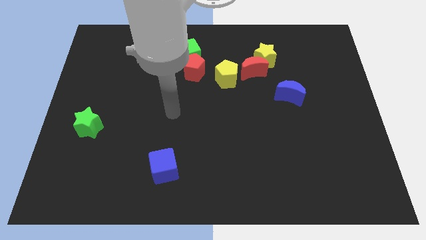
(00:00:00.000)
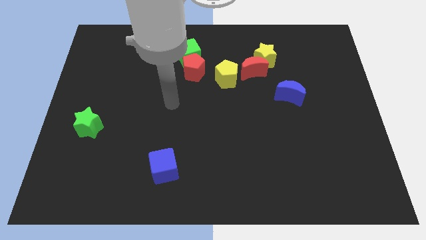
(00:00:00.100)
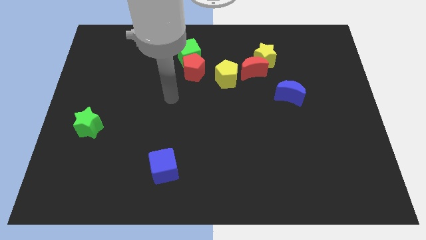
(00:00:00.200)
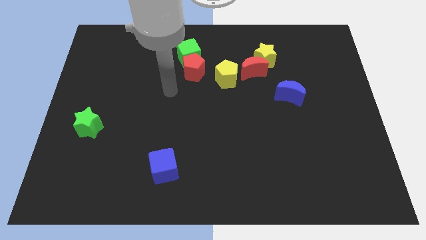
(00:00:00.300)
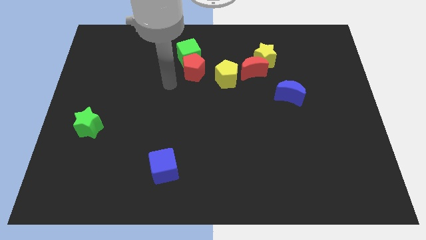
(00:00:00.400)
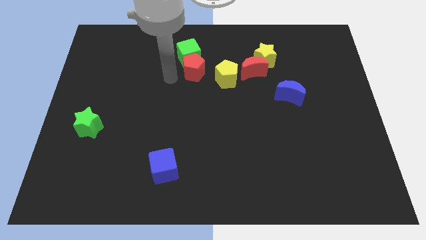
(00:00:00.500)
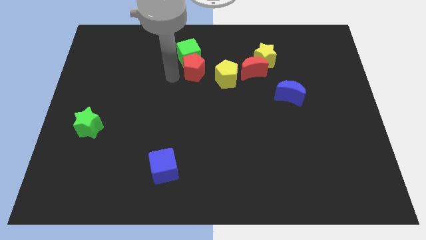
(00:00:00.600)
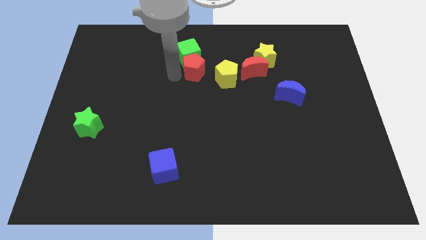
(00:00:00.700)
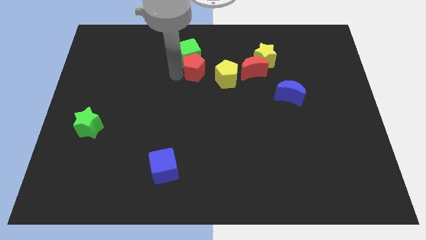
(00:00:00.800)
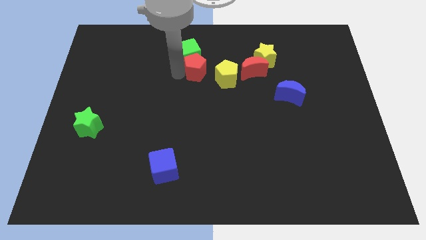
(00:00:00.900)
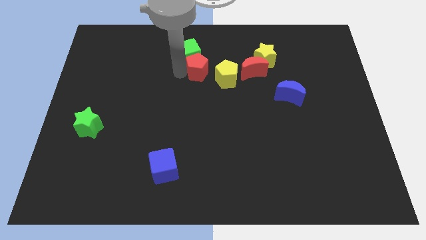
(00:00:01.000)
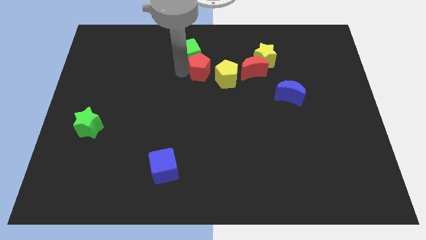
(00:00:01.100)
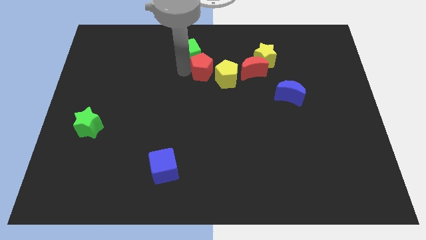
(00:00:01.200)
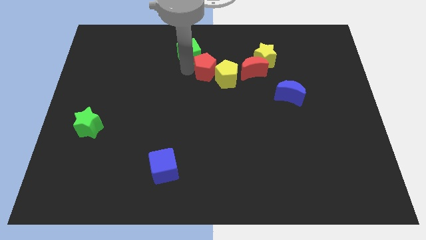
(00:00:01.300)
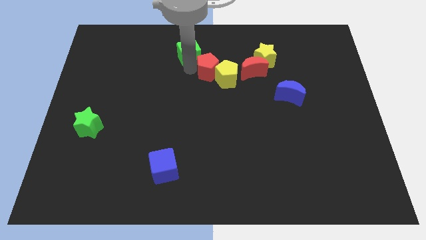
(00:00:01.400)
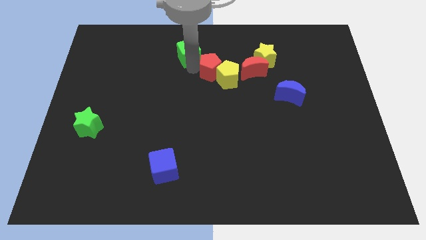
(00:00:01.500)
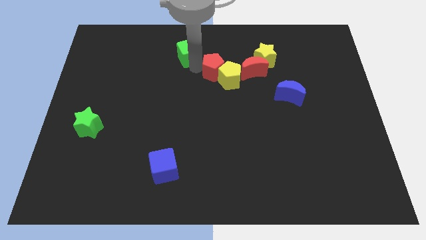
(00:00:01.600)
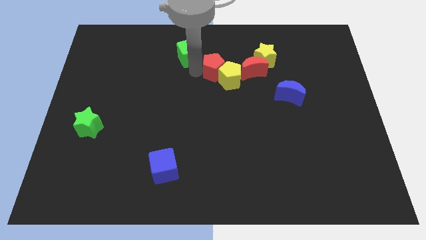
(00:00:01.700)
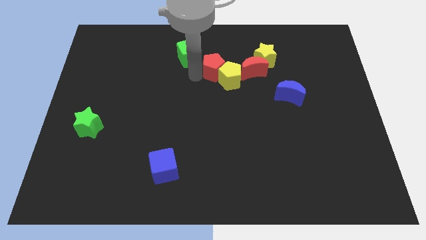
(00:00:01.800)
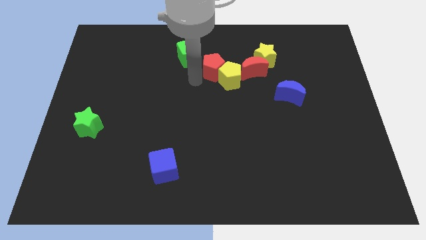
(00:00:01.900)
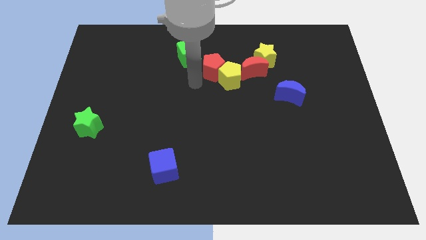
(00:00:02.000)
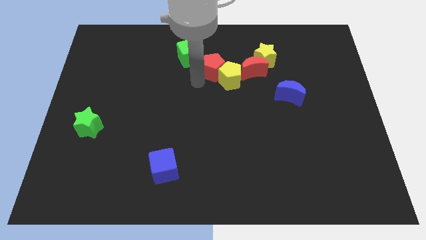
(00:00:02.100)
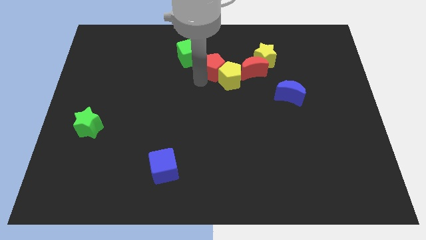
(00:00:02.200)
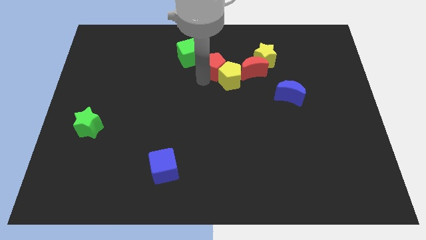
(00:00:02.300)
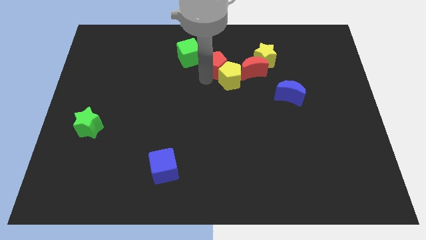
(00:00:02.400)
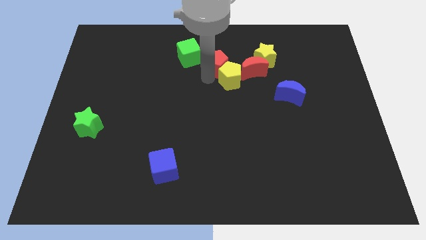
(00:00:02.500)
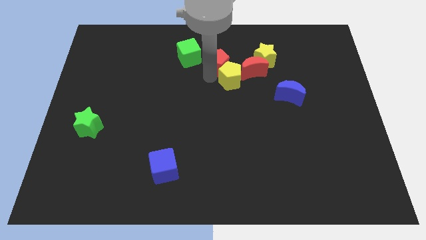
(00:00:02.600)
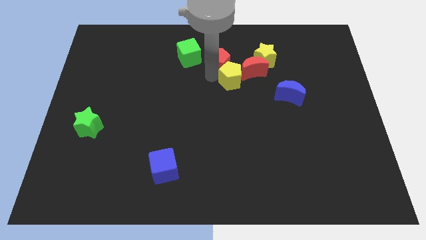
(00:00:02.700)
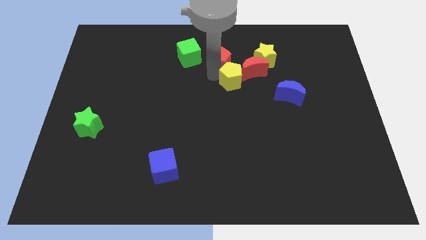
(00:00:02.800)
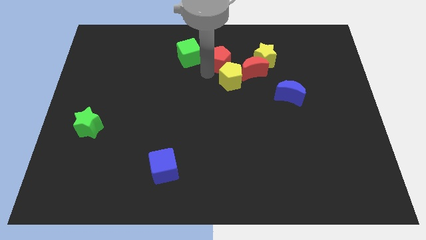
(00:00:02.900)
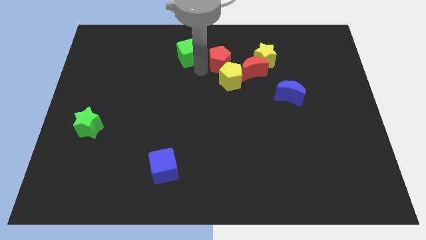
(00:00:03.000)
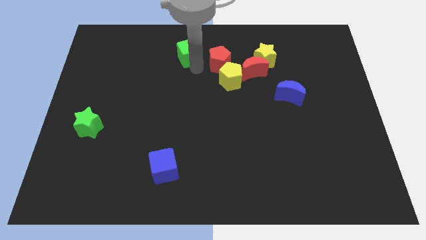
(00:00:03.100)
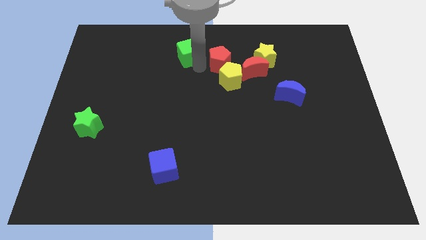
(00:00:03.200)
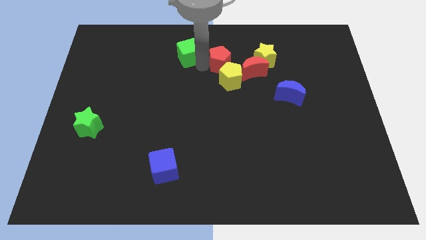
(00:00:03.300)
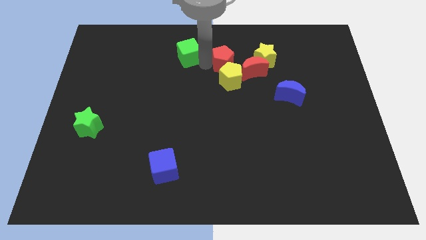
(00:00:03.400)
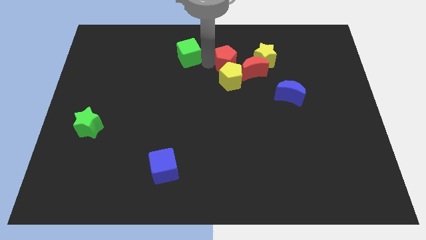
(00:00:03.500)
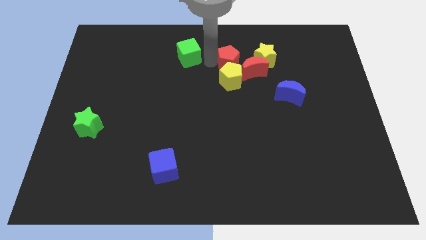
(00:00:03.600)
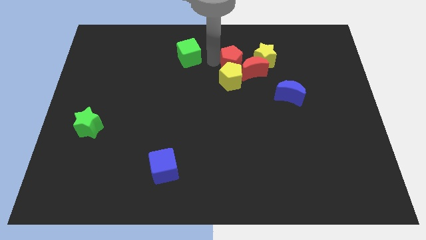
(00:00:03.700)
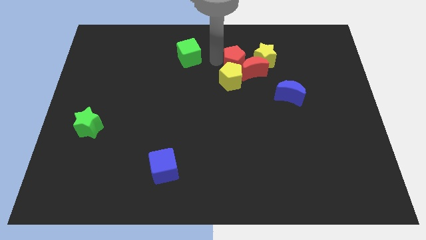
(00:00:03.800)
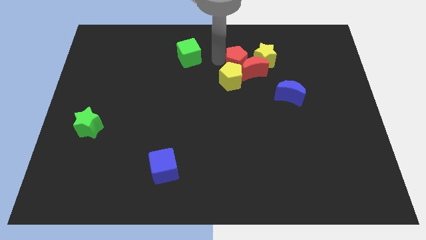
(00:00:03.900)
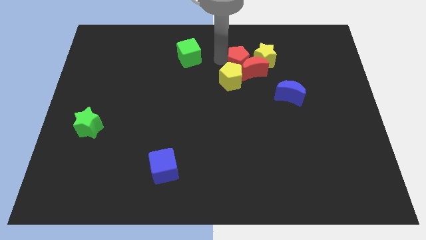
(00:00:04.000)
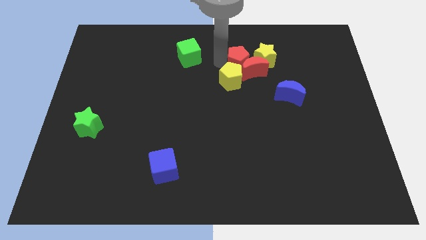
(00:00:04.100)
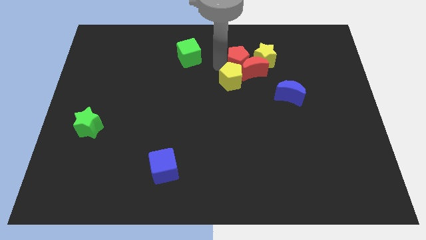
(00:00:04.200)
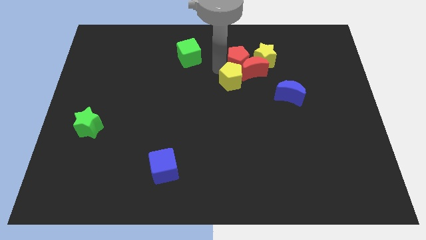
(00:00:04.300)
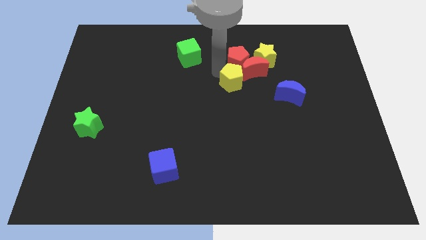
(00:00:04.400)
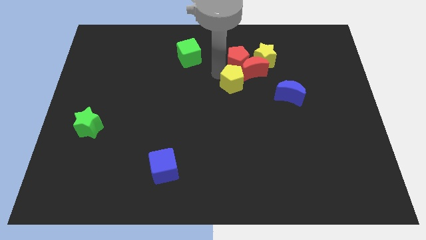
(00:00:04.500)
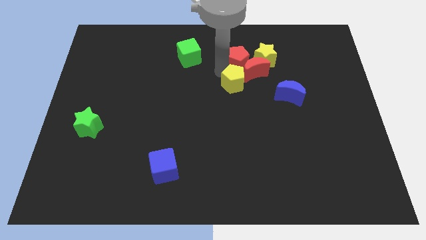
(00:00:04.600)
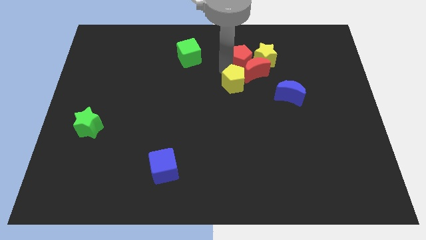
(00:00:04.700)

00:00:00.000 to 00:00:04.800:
slide the red pentagon next to the yellow star

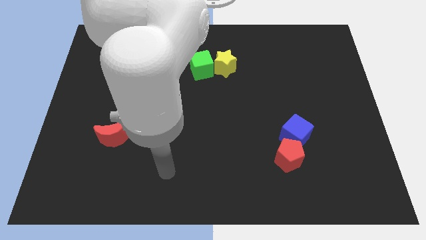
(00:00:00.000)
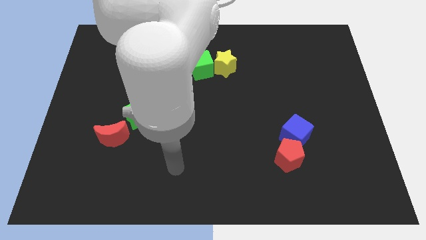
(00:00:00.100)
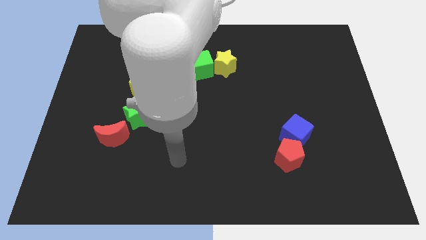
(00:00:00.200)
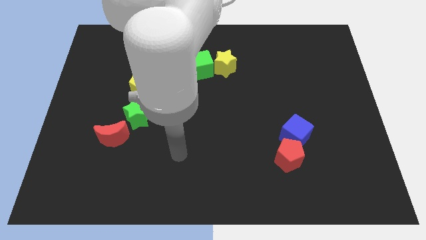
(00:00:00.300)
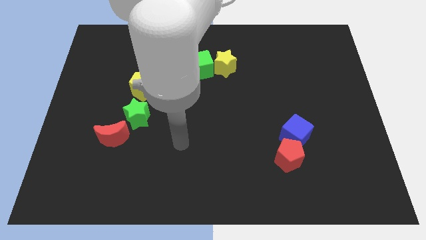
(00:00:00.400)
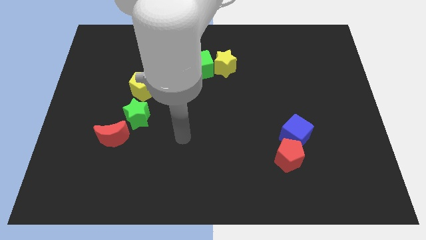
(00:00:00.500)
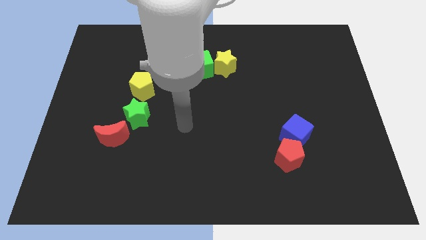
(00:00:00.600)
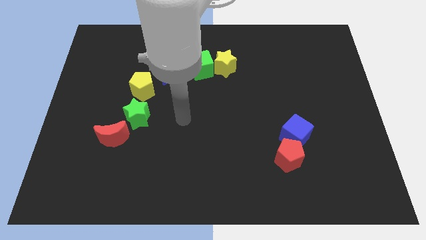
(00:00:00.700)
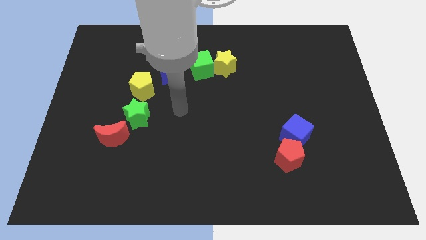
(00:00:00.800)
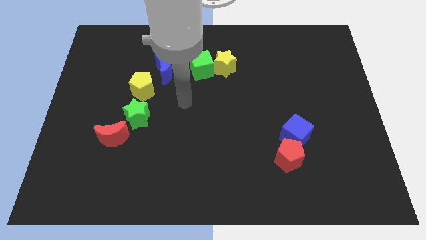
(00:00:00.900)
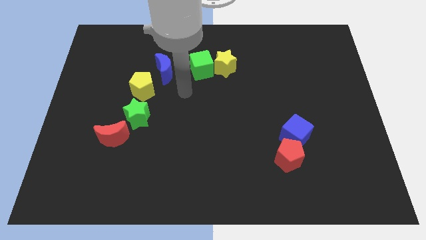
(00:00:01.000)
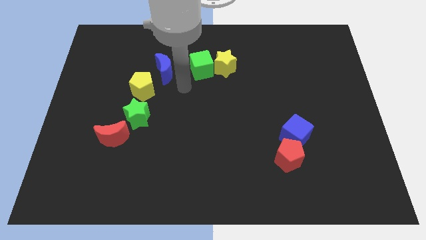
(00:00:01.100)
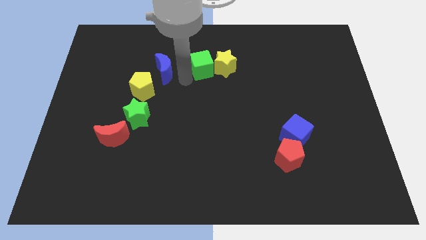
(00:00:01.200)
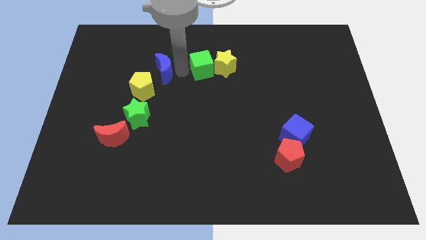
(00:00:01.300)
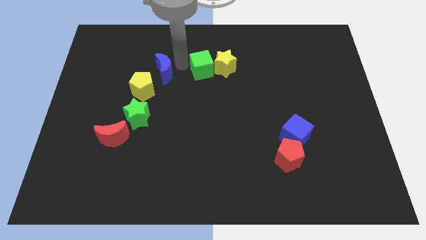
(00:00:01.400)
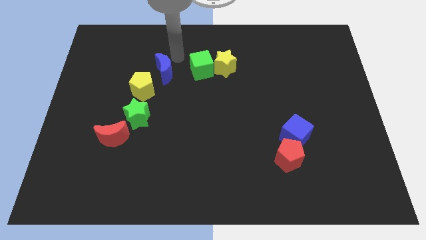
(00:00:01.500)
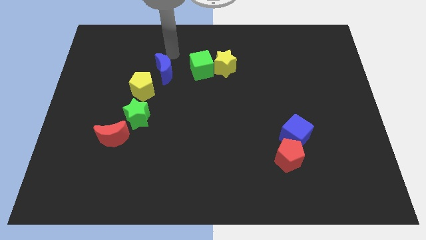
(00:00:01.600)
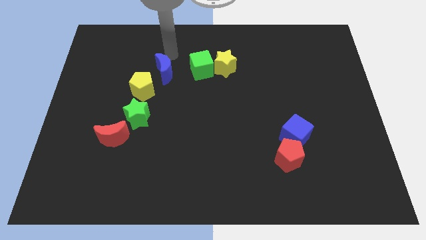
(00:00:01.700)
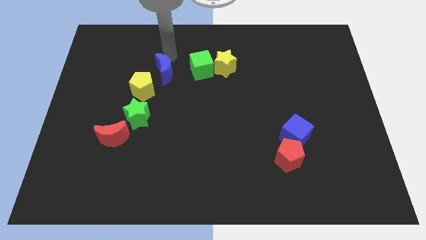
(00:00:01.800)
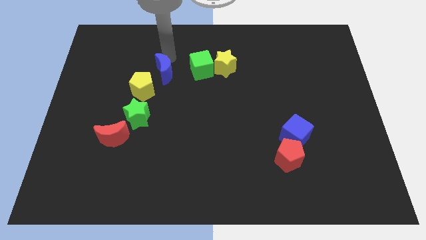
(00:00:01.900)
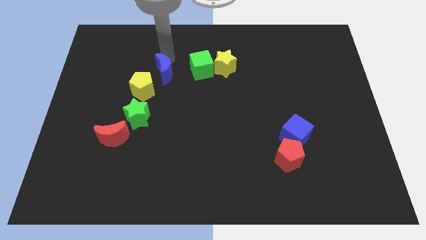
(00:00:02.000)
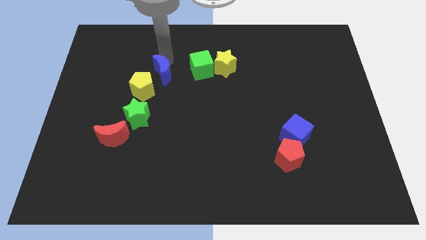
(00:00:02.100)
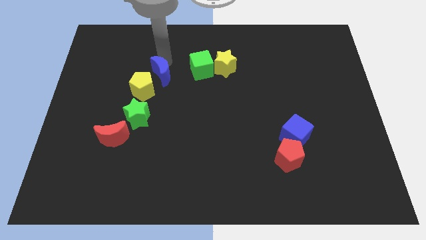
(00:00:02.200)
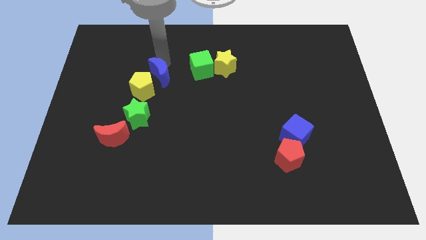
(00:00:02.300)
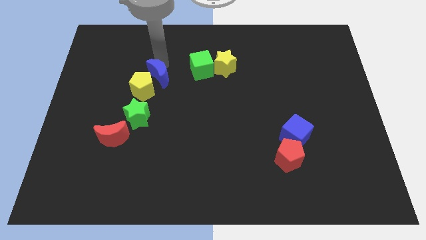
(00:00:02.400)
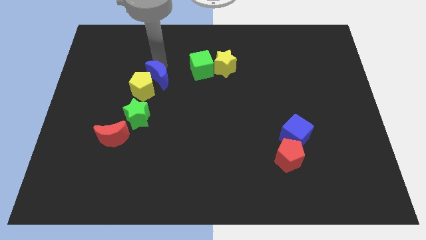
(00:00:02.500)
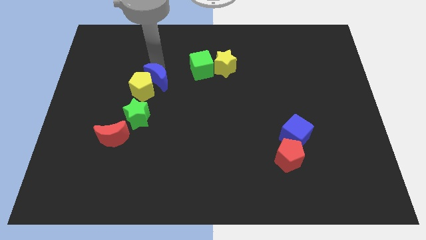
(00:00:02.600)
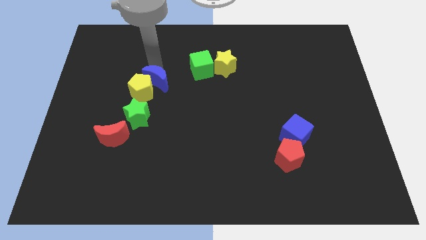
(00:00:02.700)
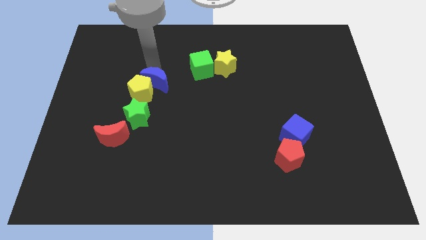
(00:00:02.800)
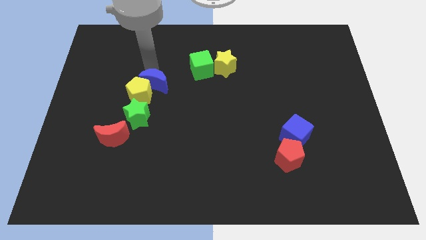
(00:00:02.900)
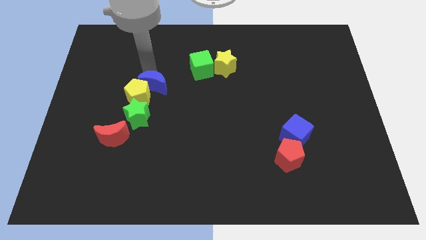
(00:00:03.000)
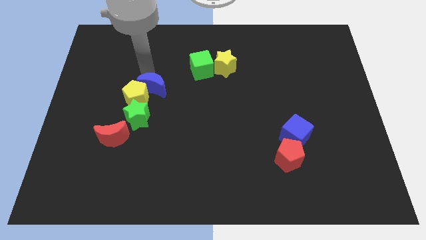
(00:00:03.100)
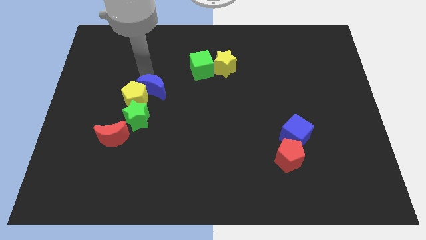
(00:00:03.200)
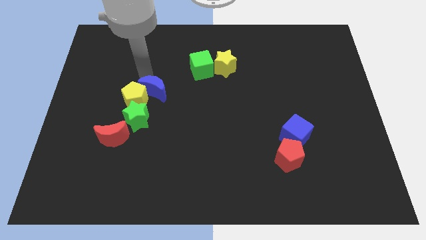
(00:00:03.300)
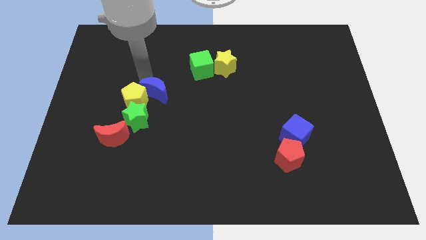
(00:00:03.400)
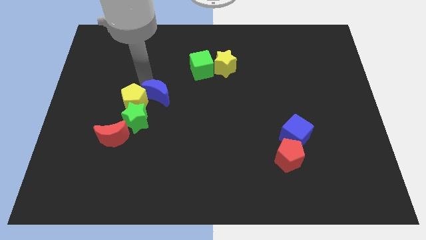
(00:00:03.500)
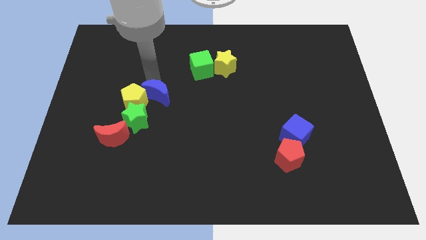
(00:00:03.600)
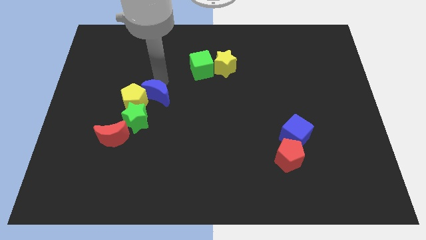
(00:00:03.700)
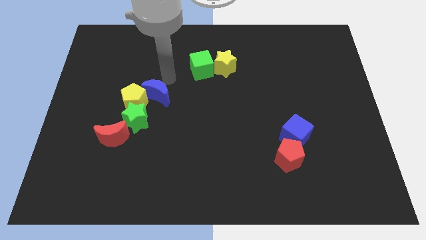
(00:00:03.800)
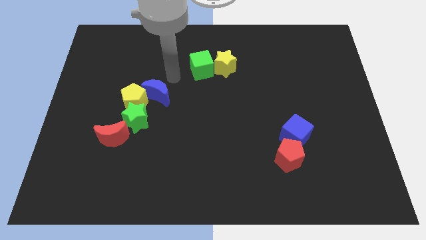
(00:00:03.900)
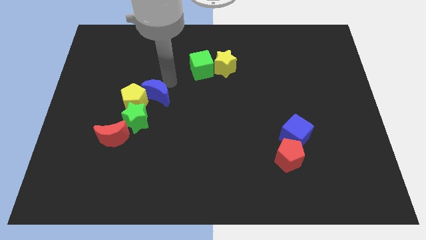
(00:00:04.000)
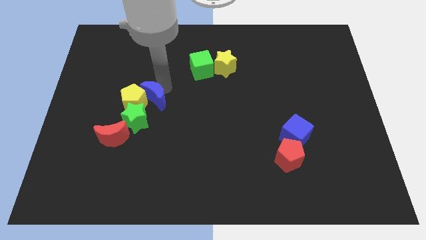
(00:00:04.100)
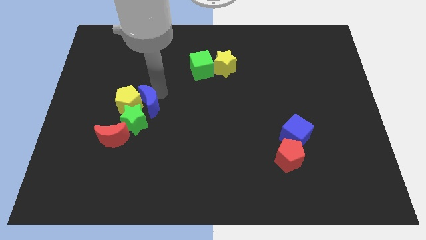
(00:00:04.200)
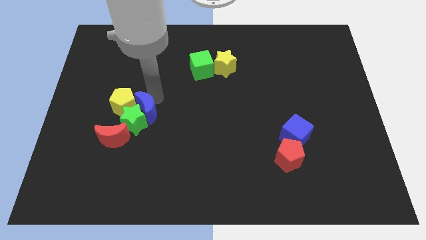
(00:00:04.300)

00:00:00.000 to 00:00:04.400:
slide the blue moon to the green star
